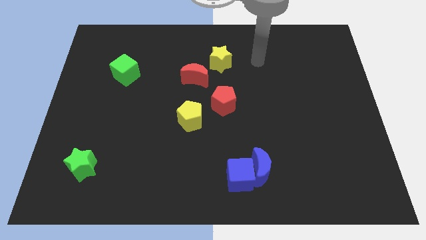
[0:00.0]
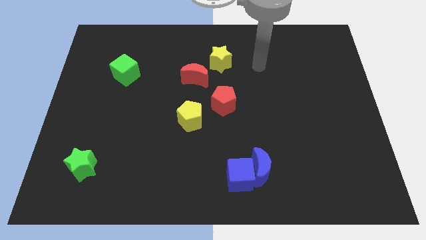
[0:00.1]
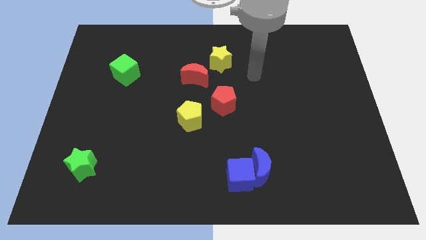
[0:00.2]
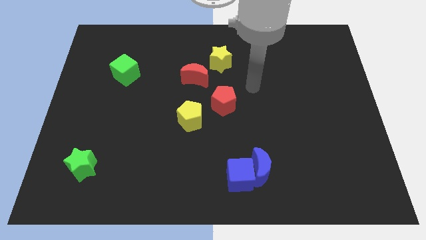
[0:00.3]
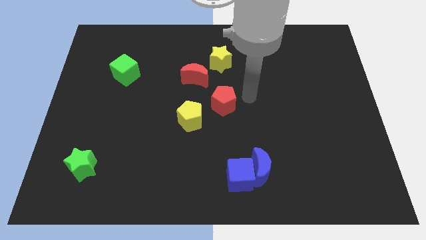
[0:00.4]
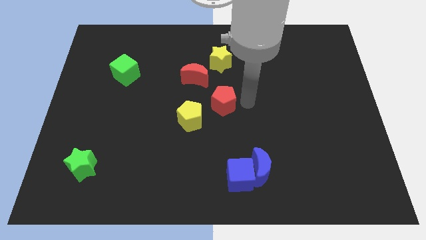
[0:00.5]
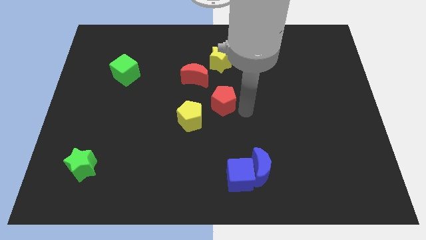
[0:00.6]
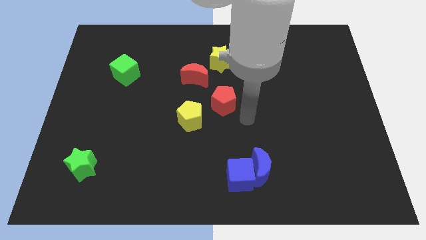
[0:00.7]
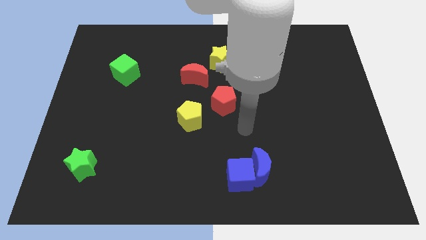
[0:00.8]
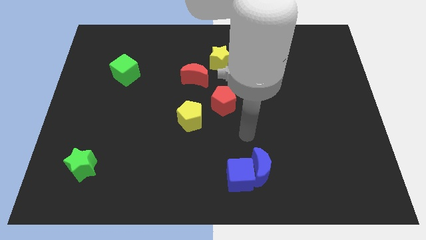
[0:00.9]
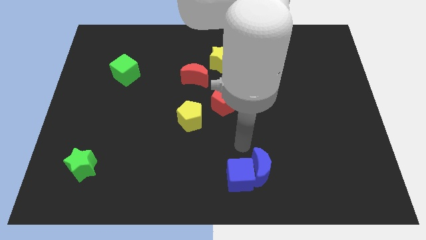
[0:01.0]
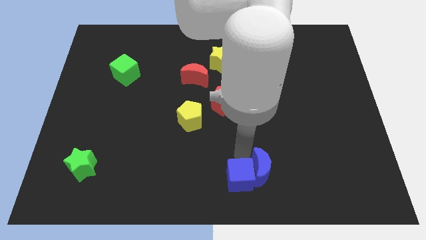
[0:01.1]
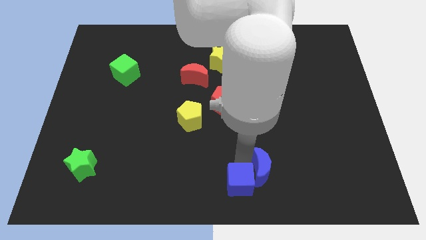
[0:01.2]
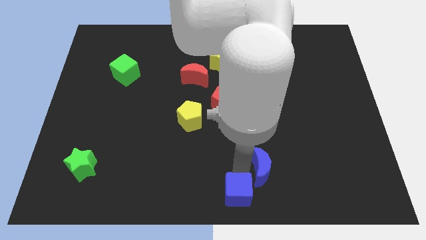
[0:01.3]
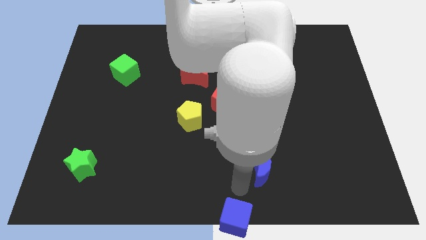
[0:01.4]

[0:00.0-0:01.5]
pull the blue moon apart from the blue cube

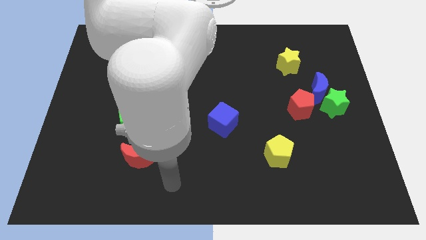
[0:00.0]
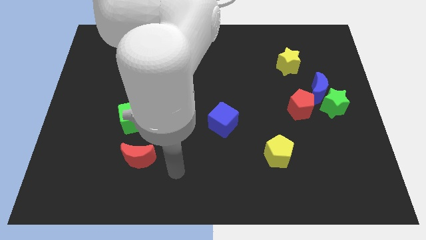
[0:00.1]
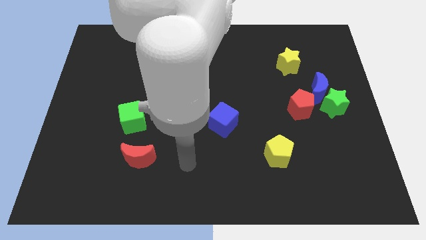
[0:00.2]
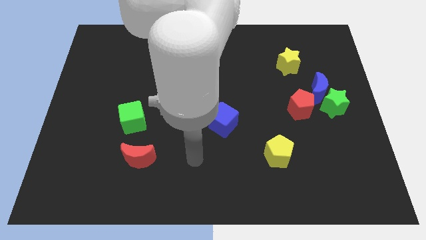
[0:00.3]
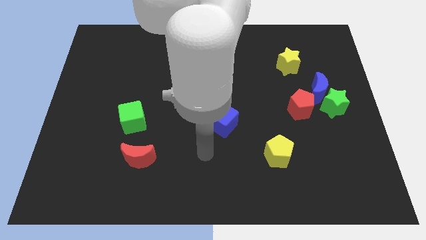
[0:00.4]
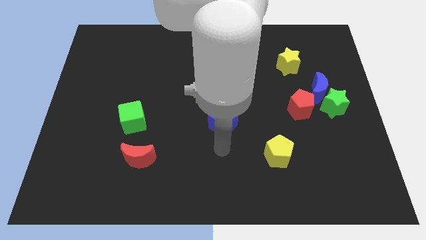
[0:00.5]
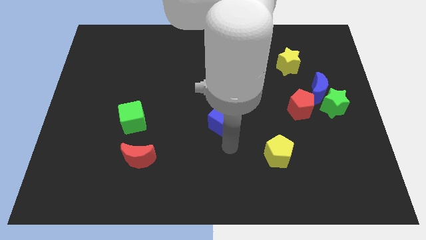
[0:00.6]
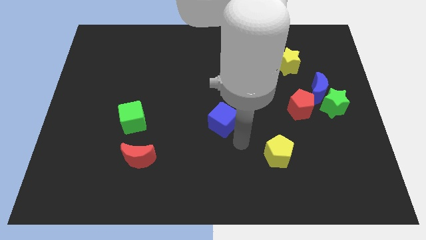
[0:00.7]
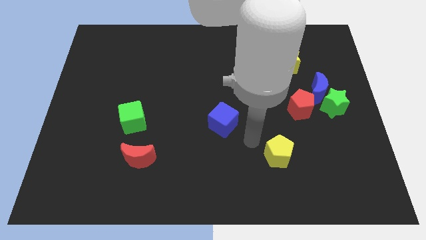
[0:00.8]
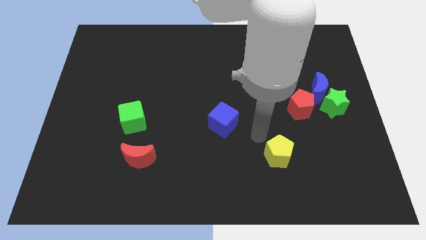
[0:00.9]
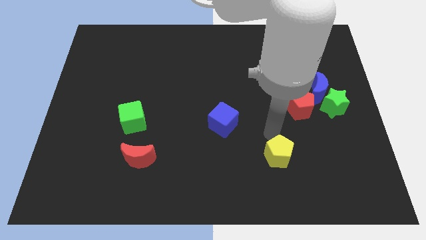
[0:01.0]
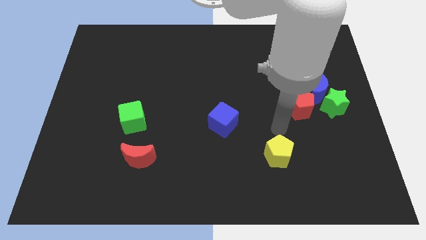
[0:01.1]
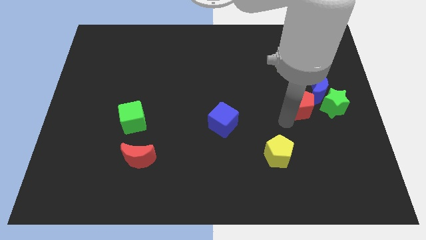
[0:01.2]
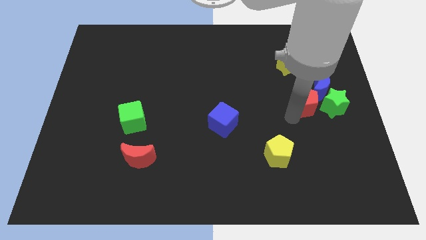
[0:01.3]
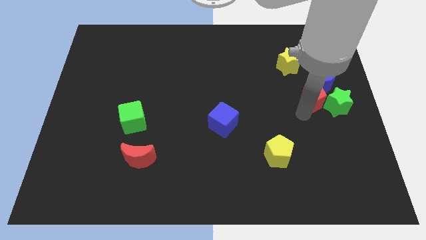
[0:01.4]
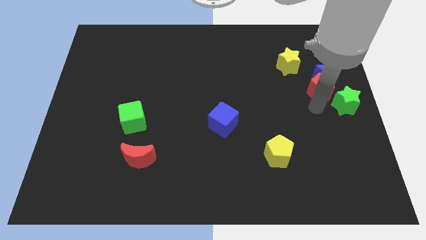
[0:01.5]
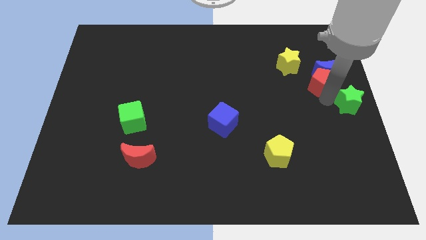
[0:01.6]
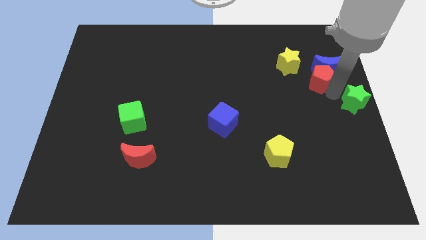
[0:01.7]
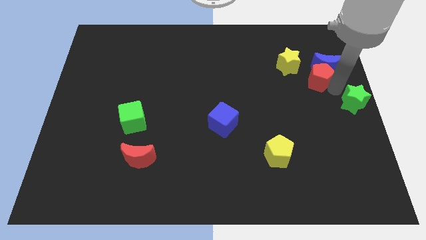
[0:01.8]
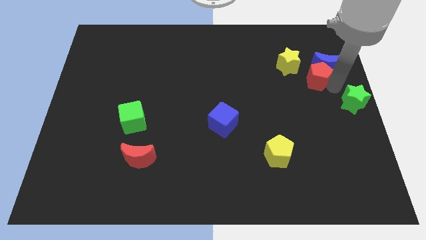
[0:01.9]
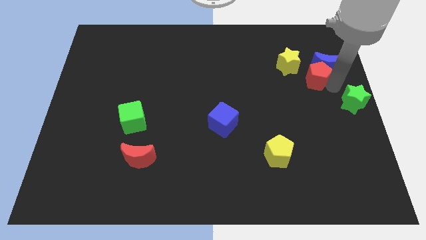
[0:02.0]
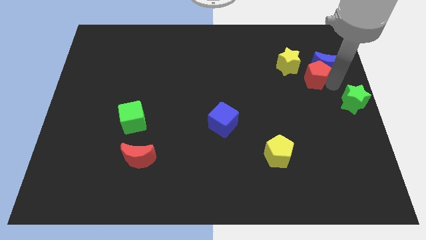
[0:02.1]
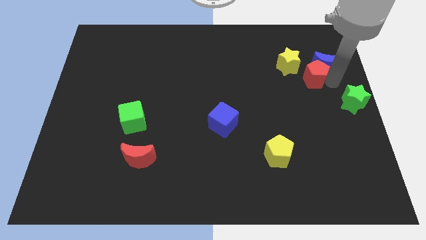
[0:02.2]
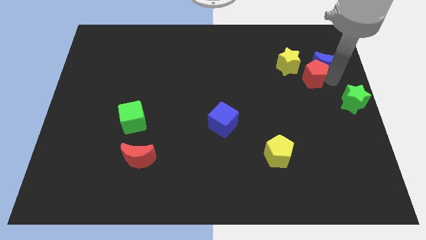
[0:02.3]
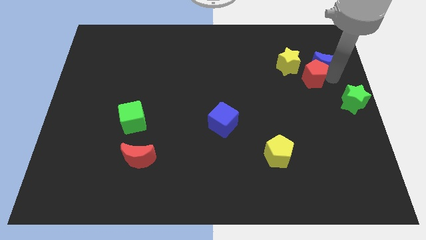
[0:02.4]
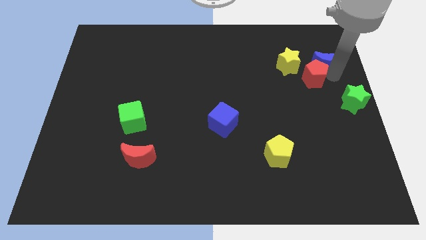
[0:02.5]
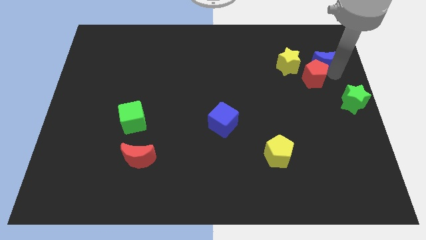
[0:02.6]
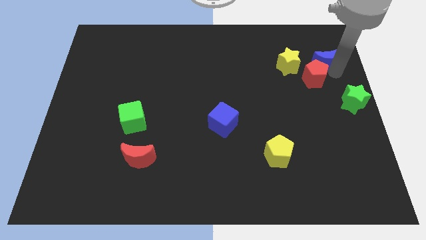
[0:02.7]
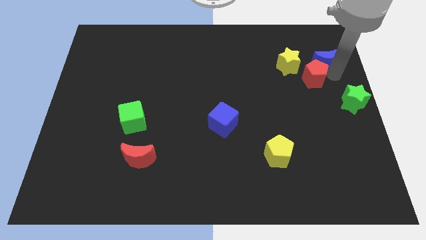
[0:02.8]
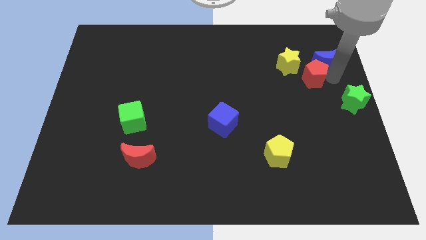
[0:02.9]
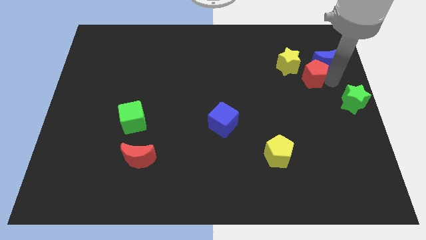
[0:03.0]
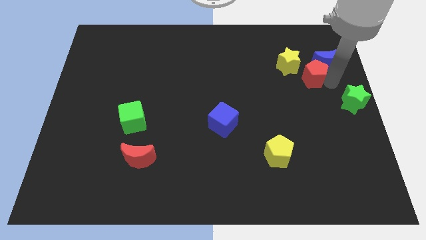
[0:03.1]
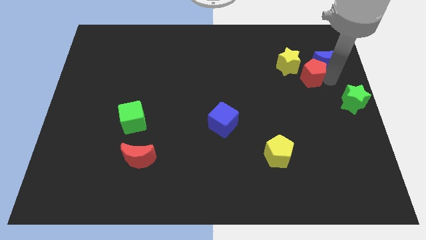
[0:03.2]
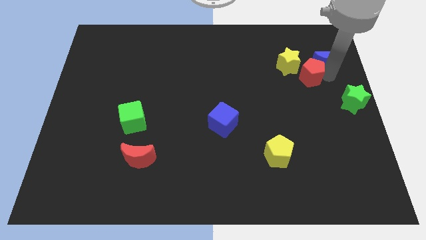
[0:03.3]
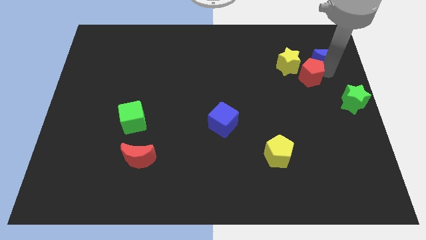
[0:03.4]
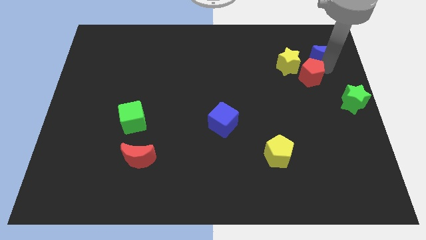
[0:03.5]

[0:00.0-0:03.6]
move the blue moon away from the green star and red pentagon

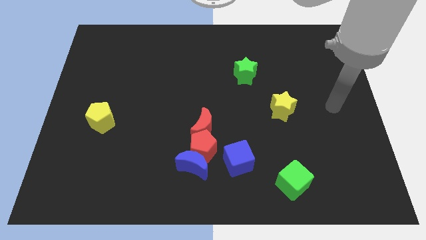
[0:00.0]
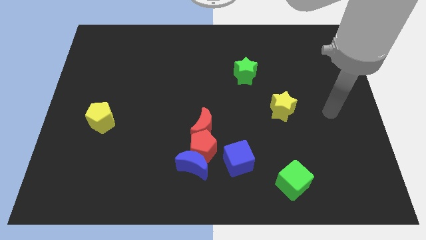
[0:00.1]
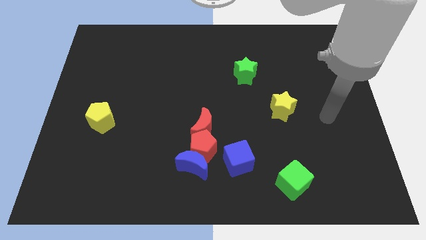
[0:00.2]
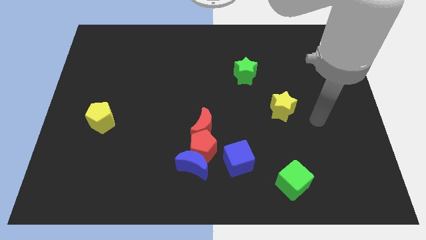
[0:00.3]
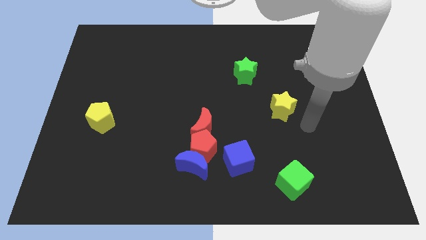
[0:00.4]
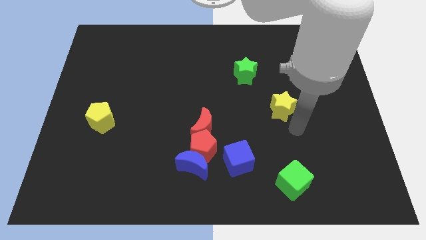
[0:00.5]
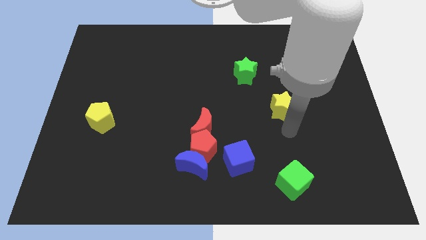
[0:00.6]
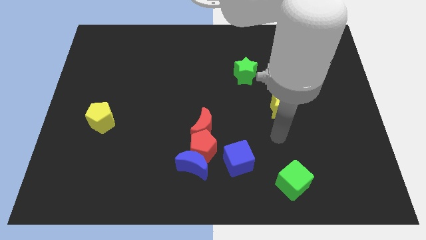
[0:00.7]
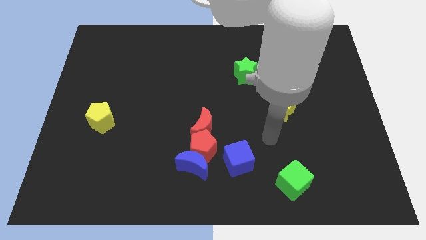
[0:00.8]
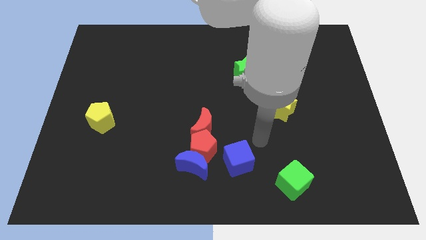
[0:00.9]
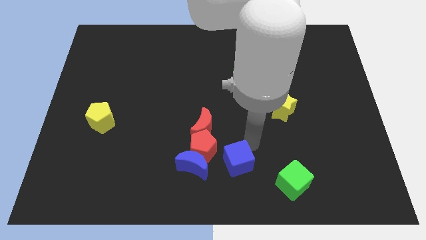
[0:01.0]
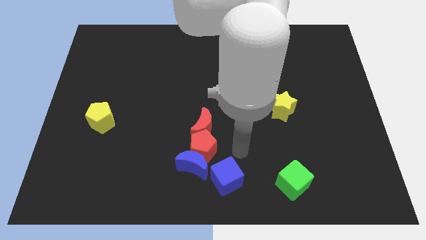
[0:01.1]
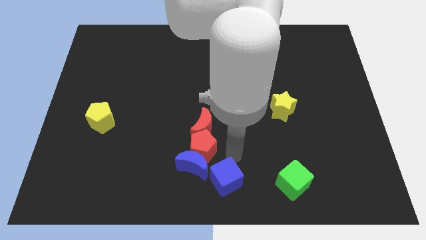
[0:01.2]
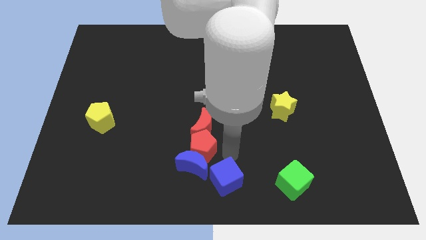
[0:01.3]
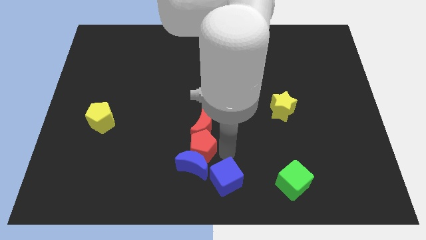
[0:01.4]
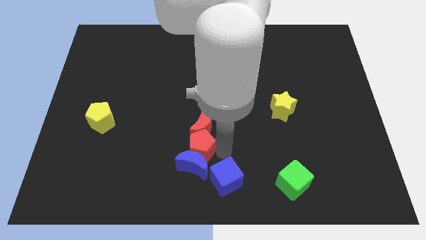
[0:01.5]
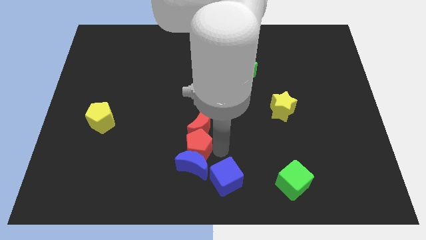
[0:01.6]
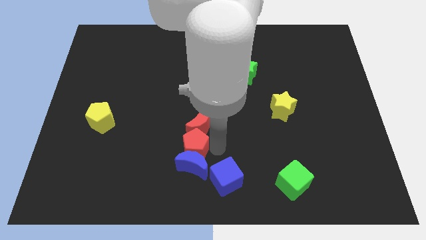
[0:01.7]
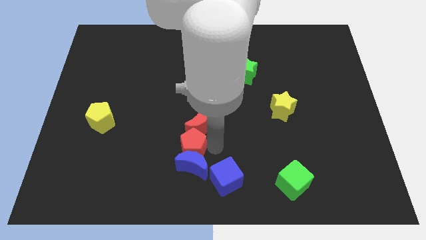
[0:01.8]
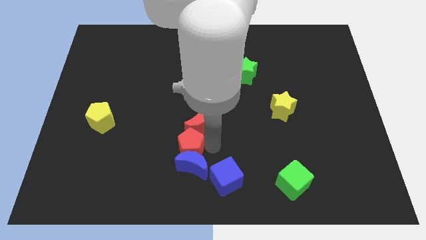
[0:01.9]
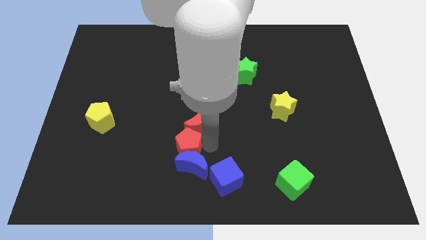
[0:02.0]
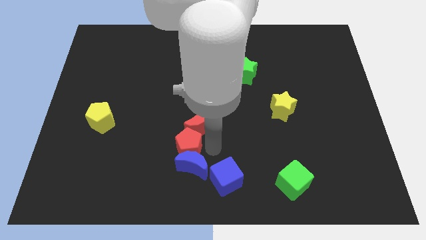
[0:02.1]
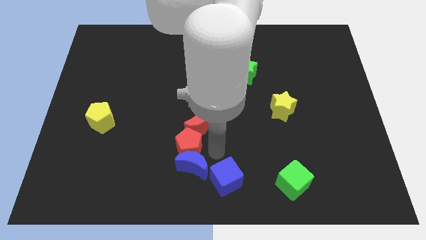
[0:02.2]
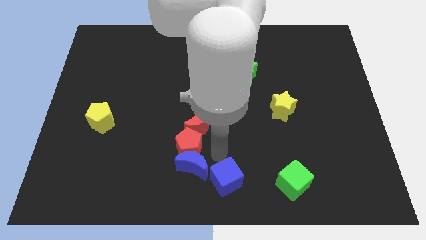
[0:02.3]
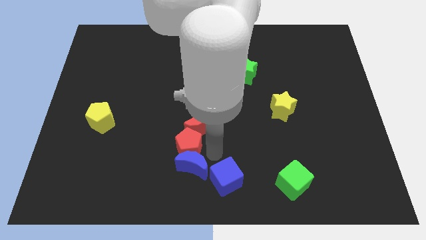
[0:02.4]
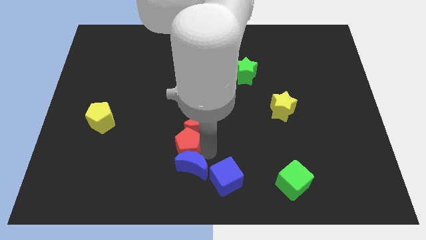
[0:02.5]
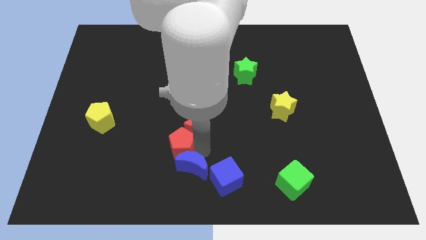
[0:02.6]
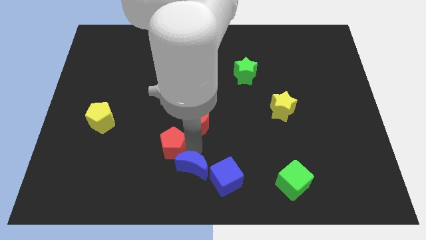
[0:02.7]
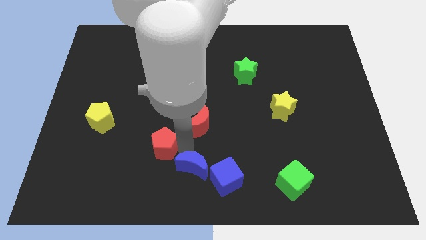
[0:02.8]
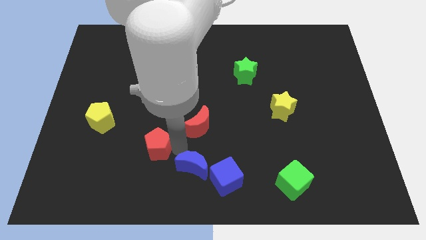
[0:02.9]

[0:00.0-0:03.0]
move the red pentagon away from the group

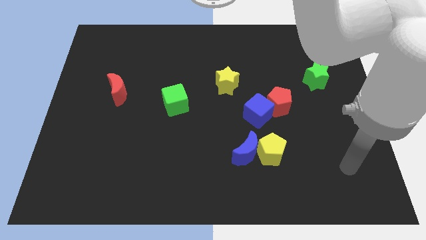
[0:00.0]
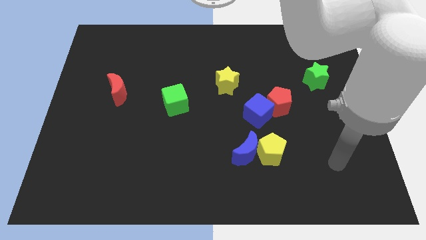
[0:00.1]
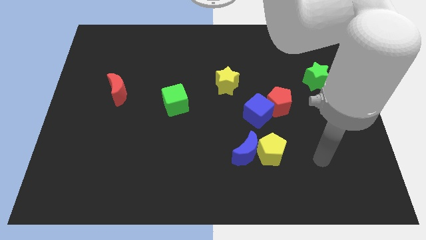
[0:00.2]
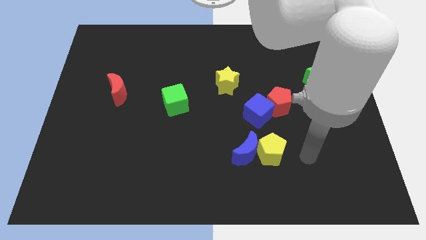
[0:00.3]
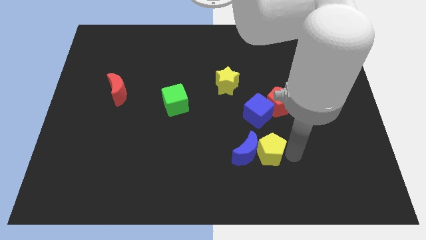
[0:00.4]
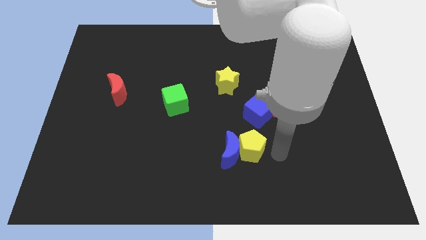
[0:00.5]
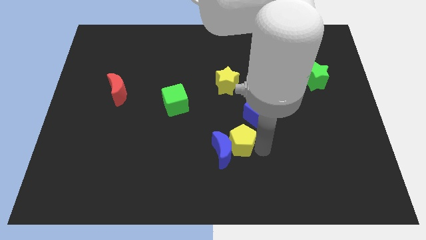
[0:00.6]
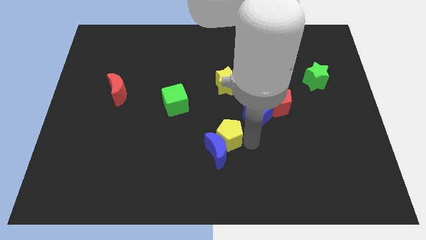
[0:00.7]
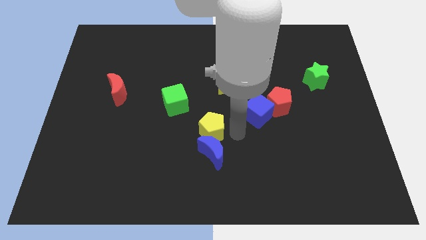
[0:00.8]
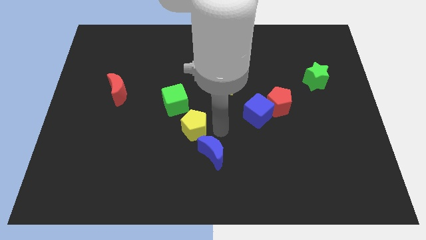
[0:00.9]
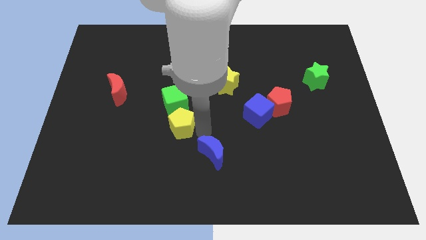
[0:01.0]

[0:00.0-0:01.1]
pull the blue moon apart from the yellow pentagon

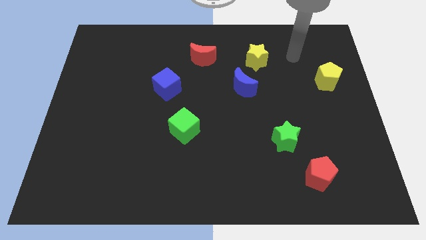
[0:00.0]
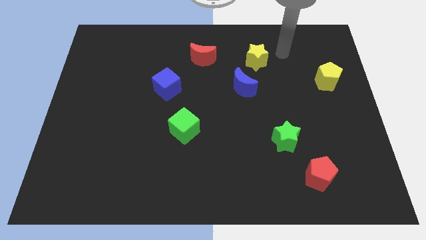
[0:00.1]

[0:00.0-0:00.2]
move the blue moon away from the yellow star
